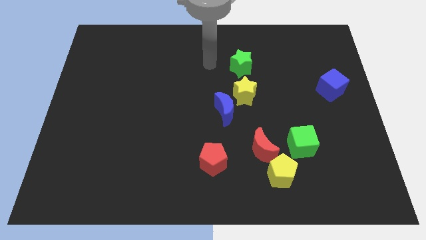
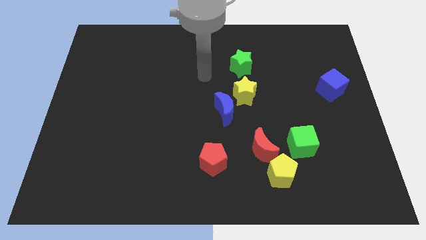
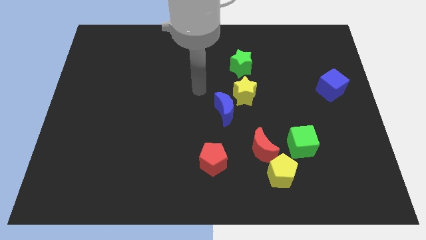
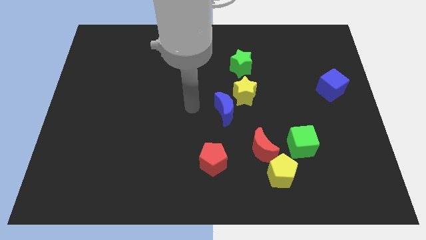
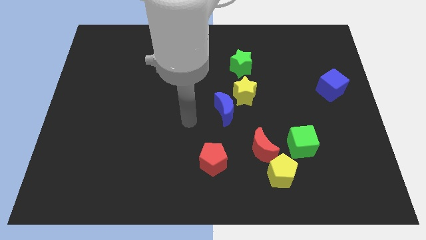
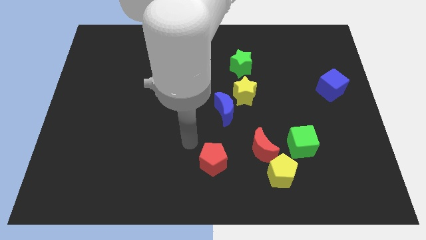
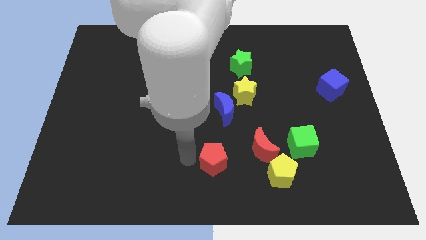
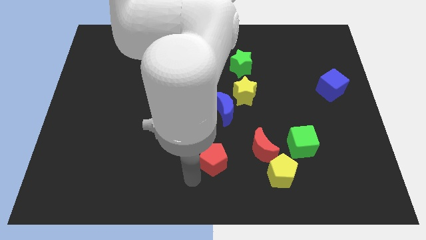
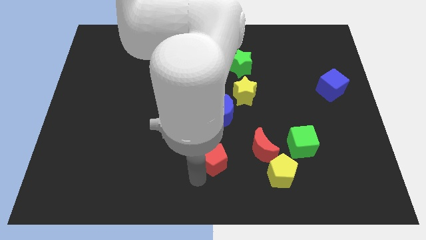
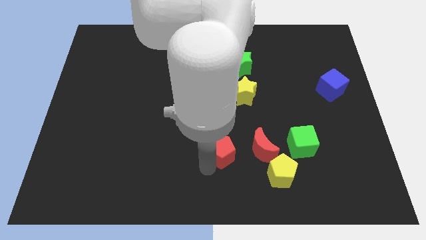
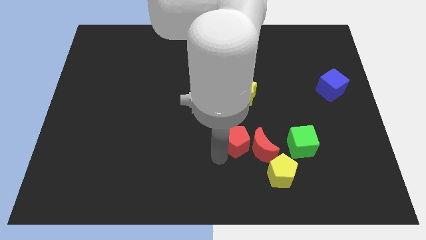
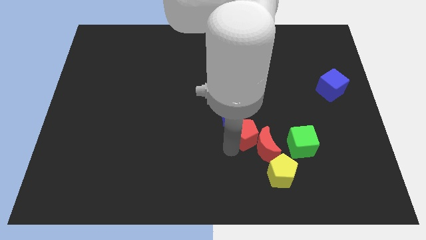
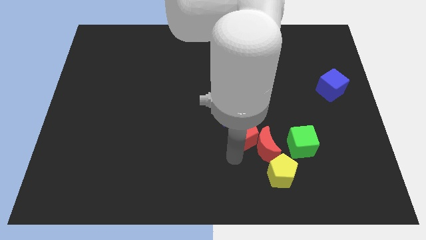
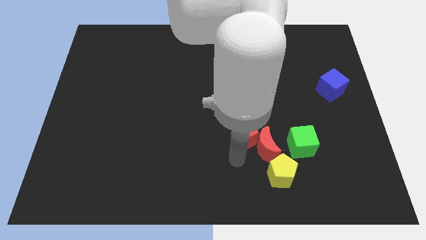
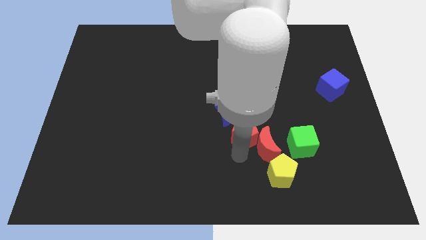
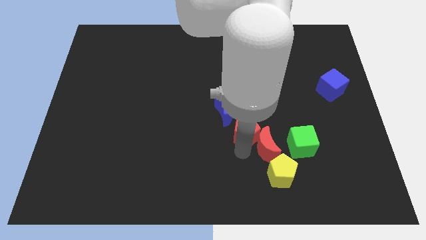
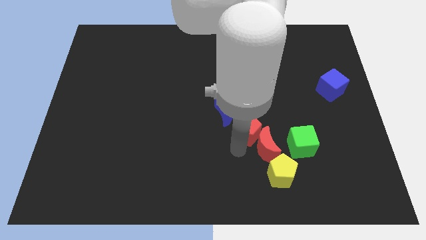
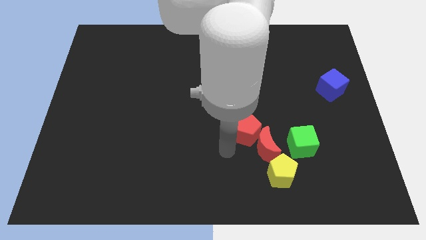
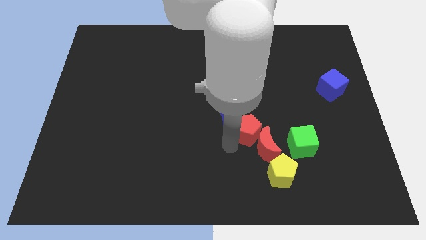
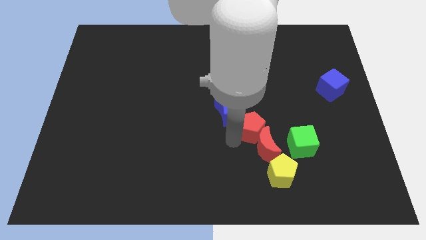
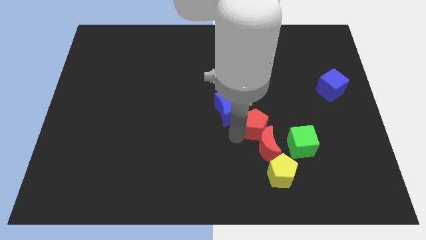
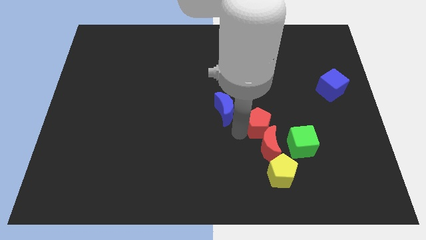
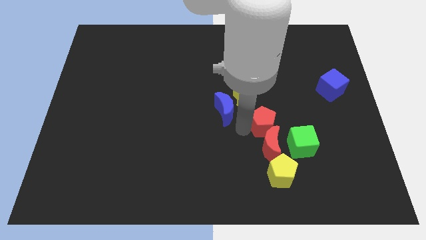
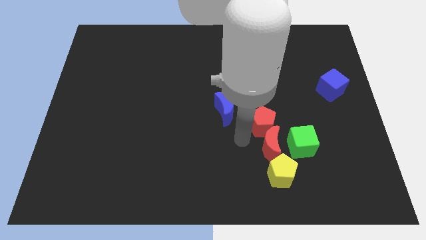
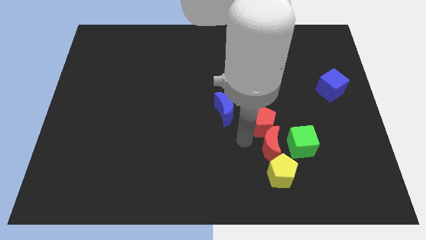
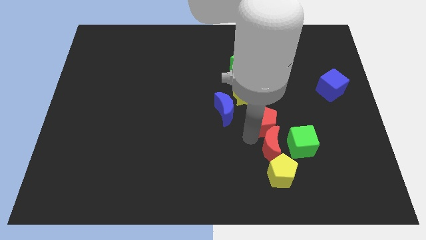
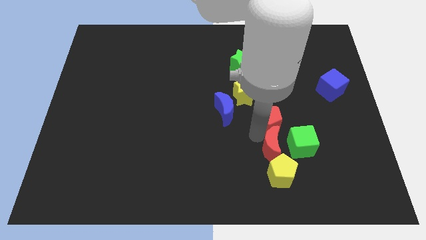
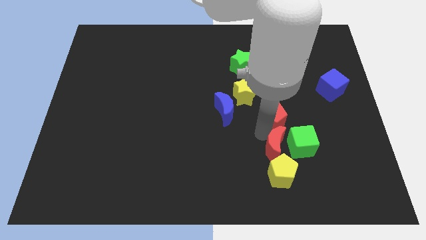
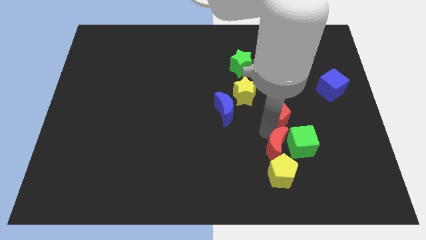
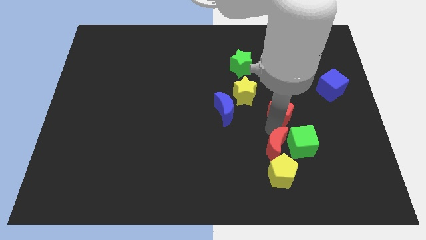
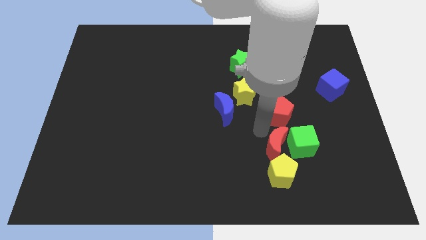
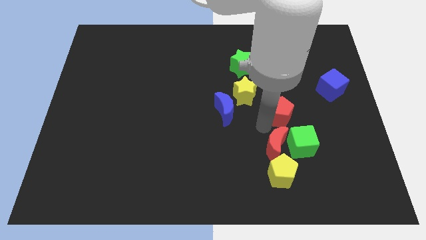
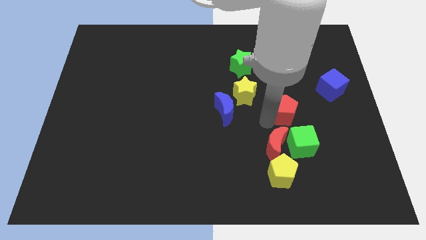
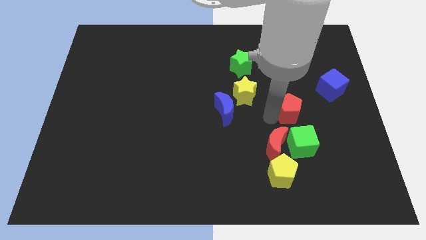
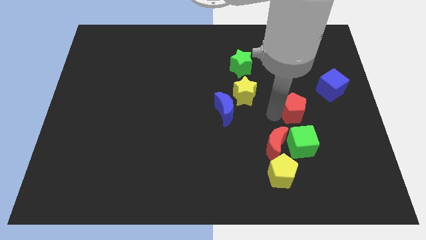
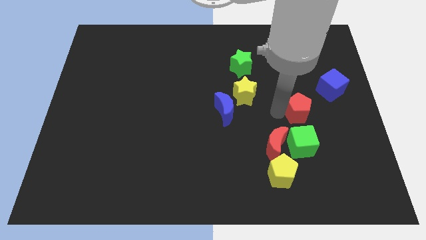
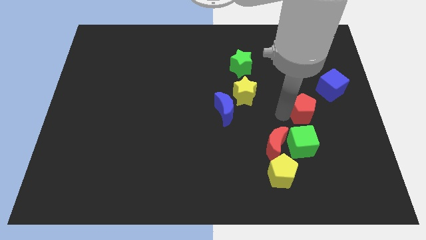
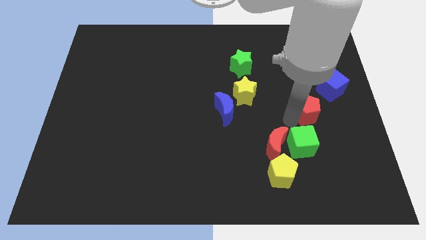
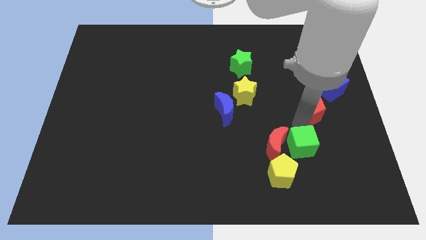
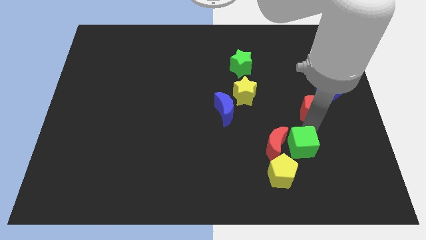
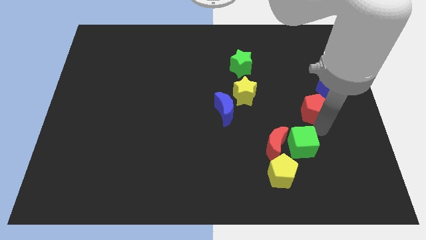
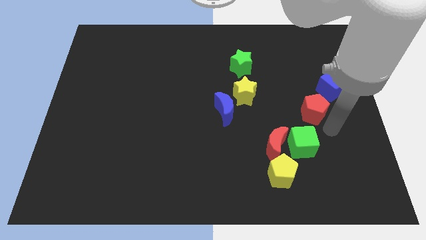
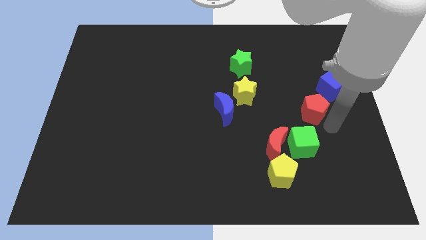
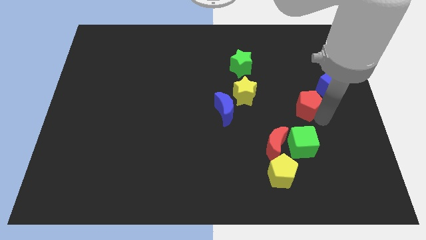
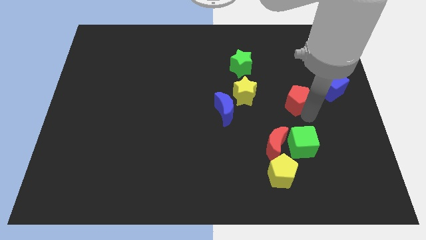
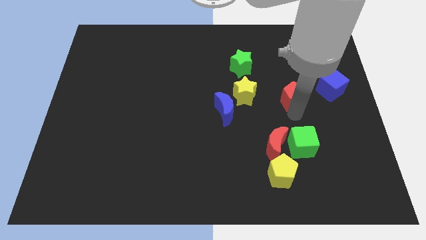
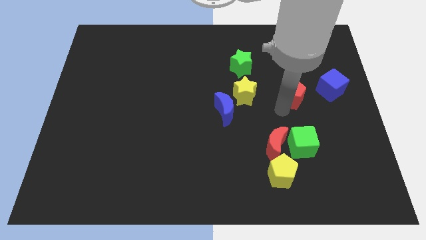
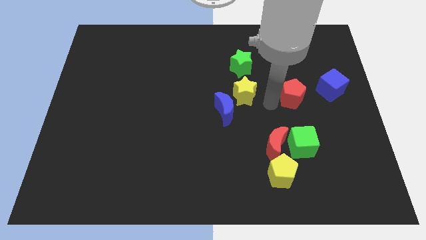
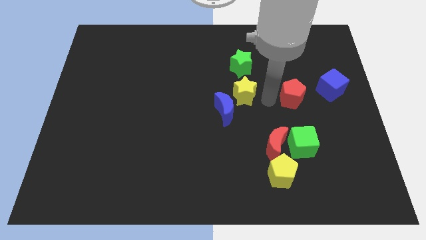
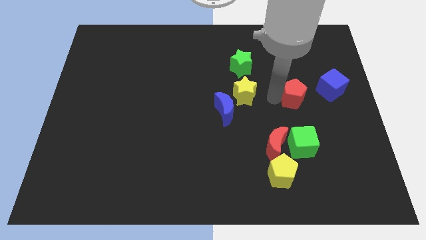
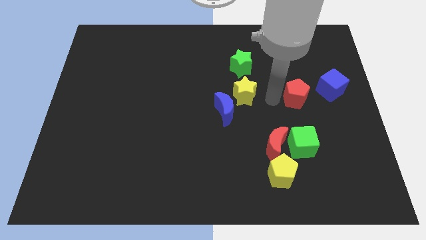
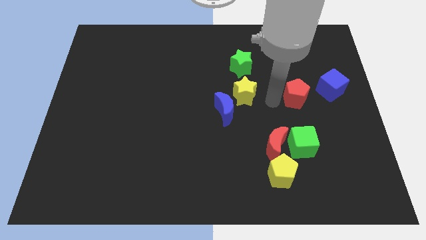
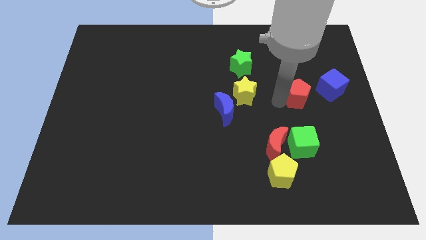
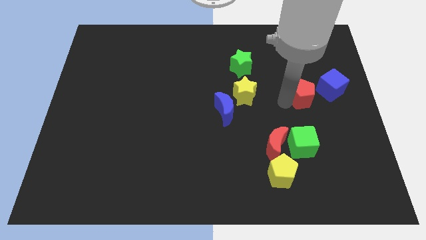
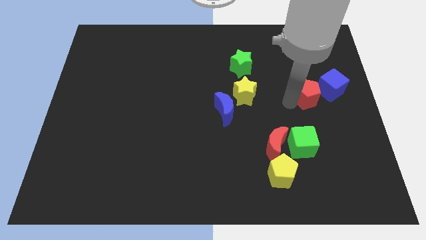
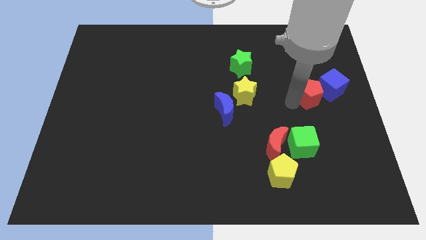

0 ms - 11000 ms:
slide the red pentagon towards the blue cube

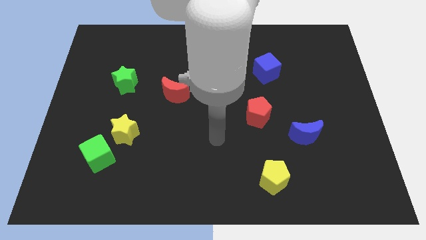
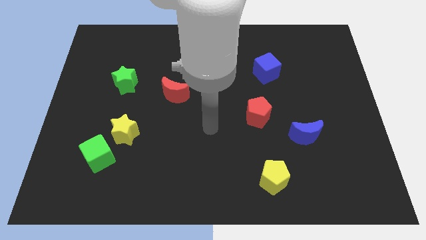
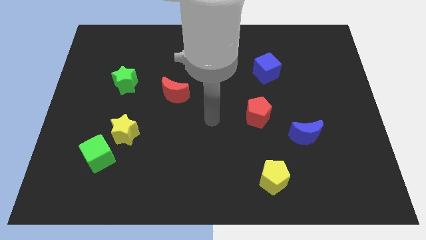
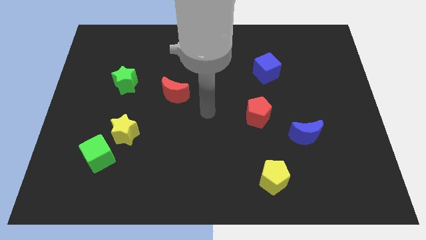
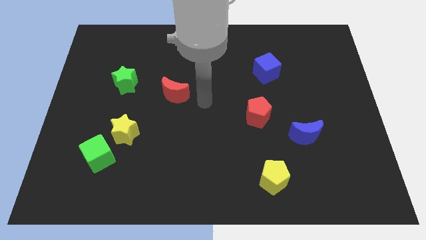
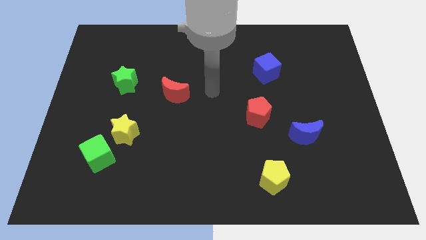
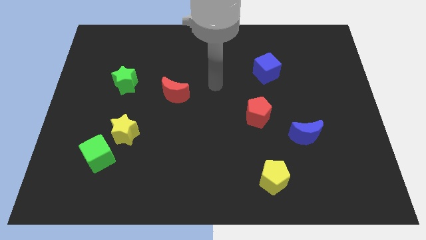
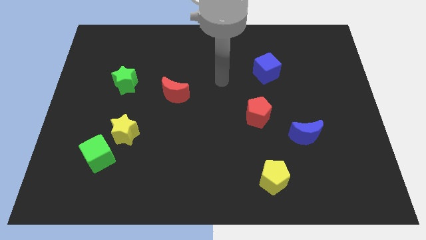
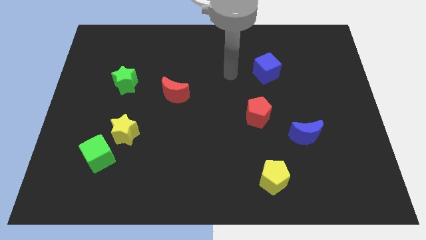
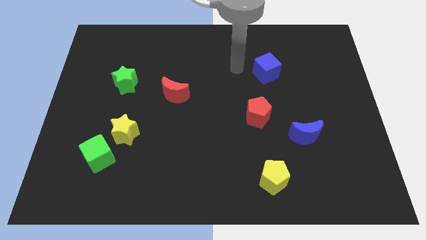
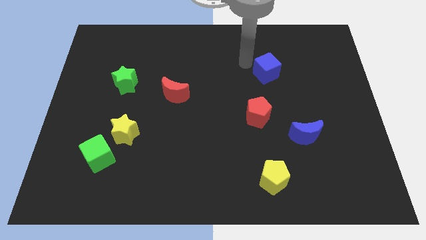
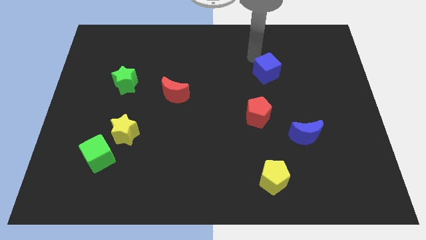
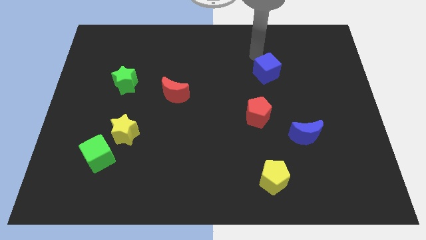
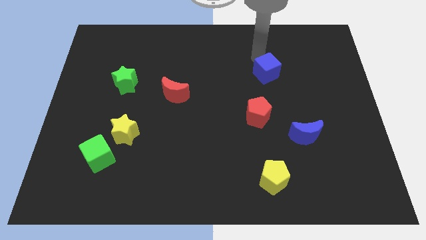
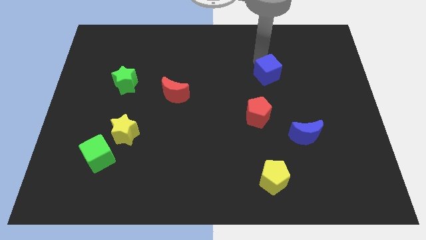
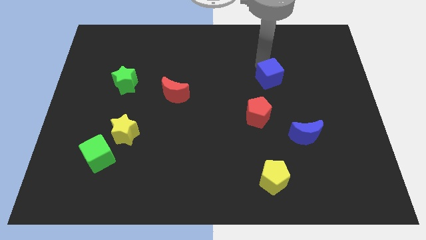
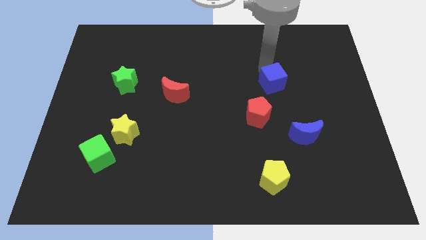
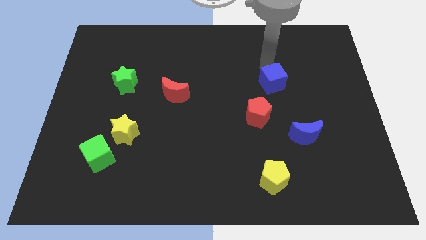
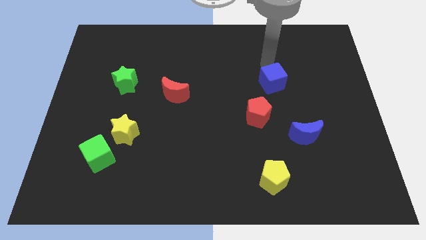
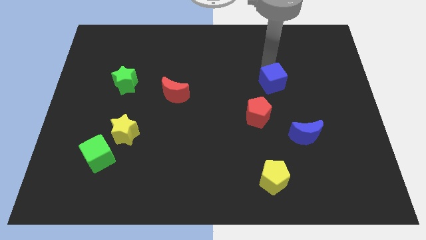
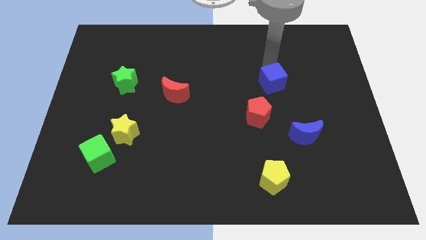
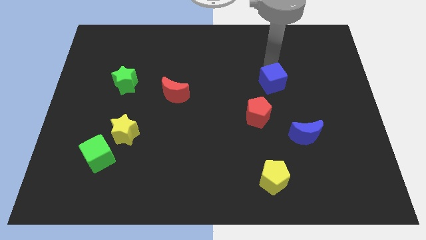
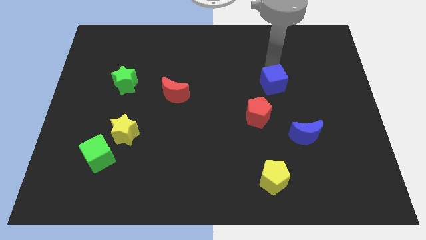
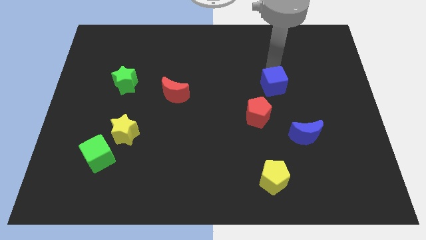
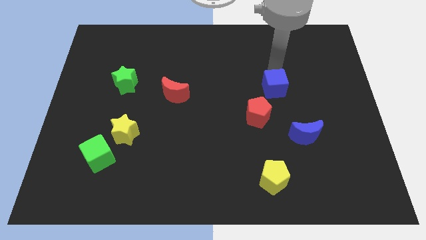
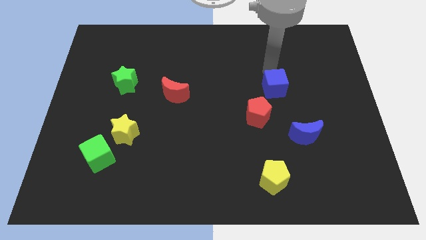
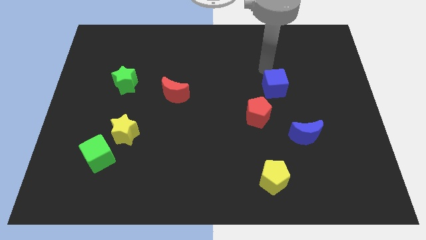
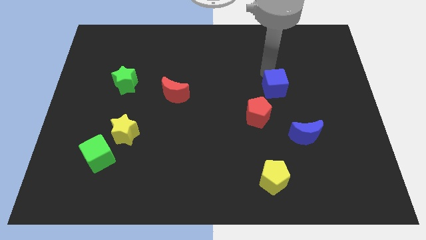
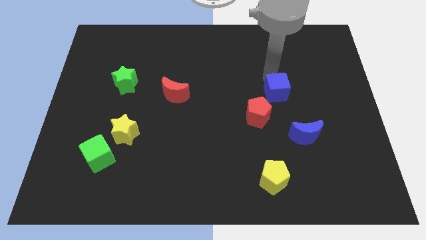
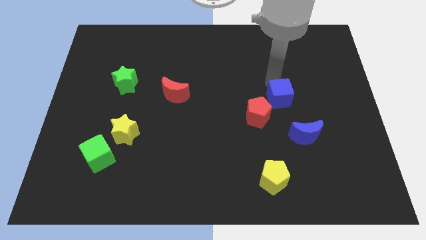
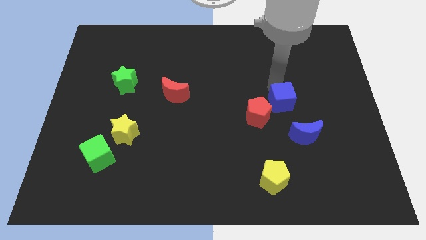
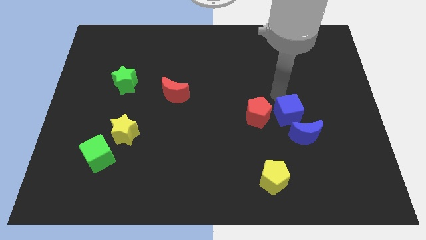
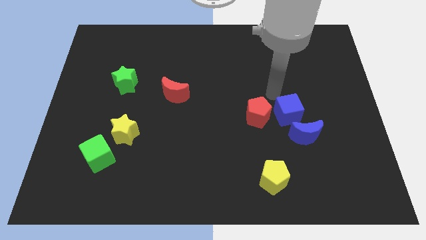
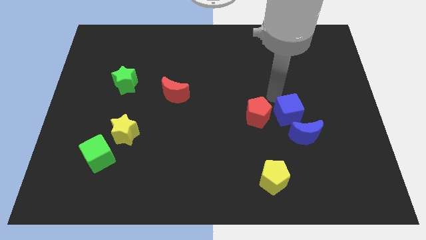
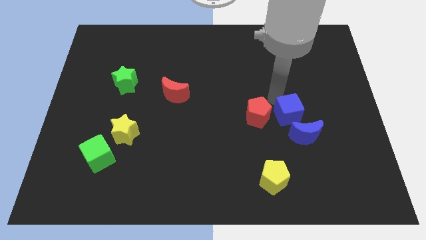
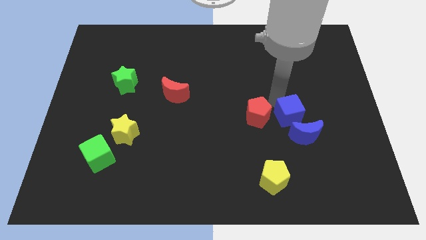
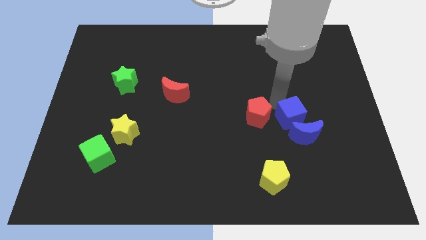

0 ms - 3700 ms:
move the blue cube to the blue moon
